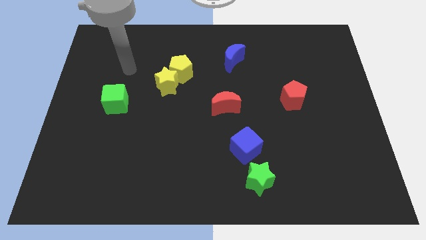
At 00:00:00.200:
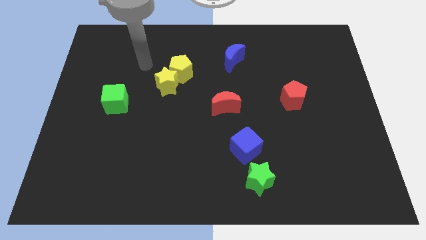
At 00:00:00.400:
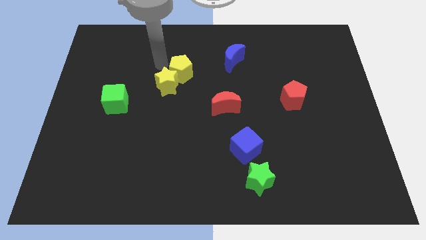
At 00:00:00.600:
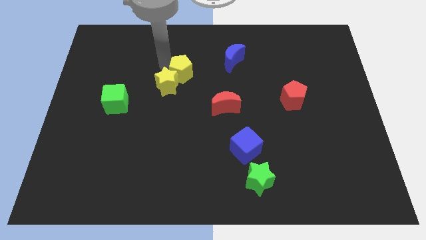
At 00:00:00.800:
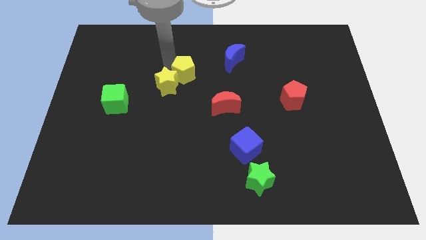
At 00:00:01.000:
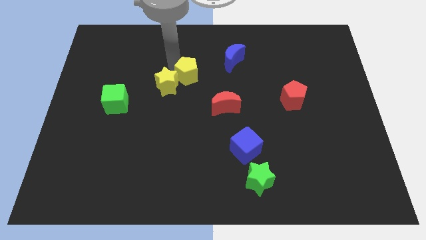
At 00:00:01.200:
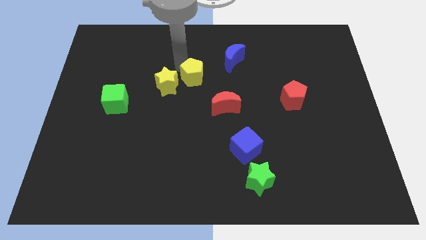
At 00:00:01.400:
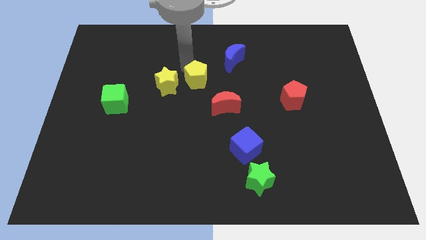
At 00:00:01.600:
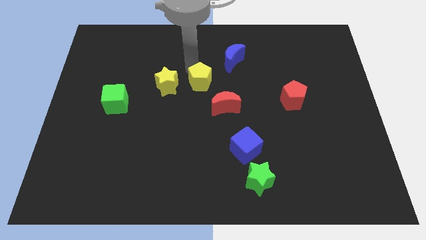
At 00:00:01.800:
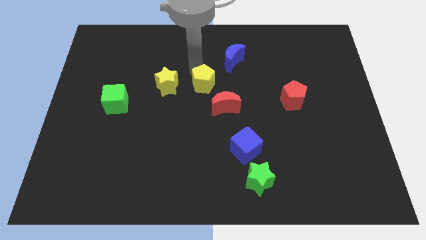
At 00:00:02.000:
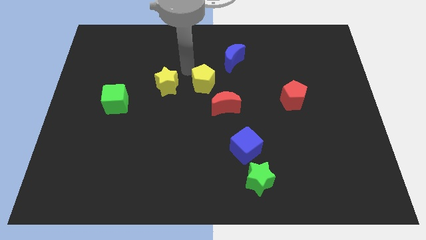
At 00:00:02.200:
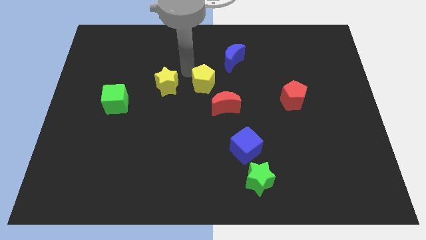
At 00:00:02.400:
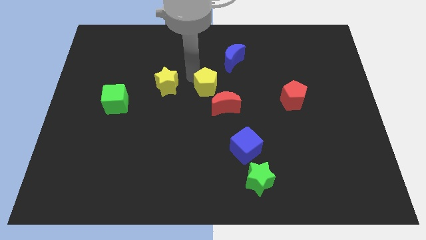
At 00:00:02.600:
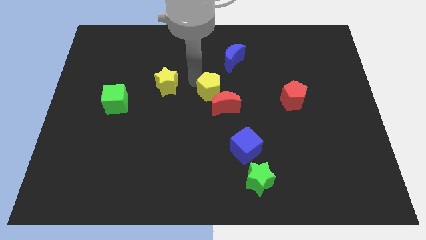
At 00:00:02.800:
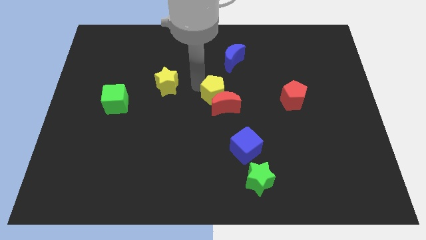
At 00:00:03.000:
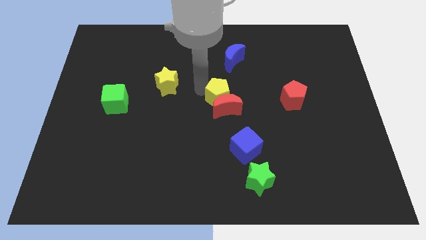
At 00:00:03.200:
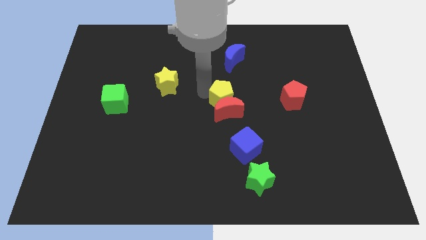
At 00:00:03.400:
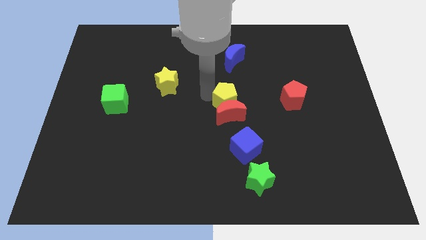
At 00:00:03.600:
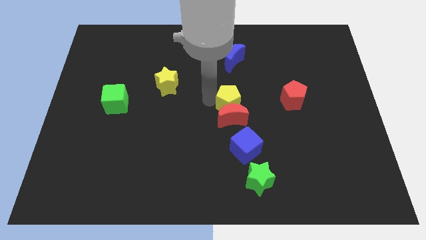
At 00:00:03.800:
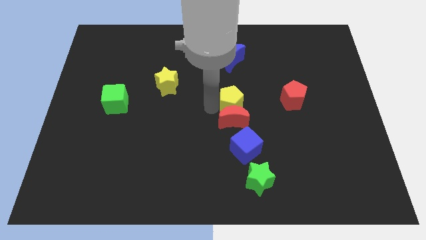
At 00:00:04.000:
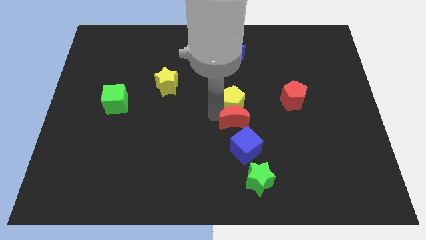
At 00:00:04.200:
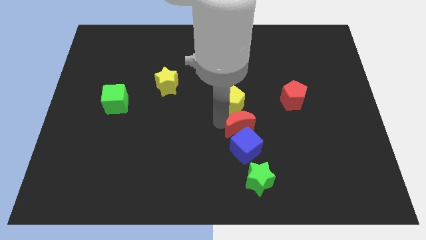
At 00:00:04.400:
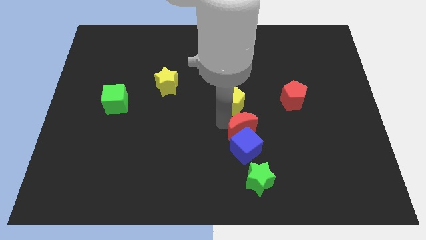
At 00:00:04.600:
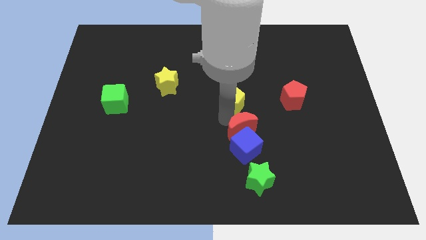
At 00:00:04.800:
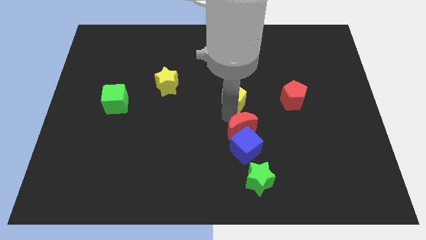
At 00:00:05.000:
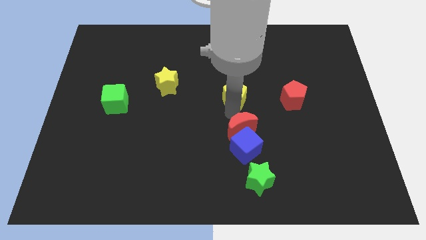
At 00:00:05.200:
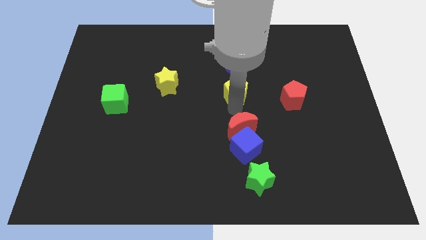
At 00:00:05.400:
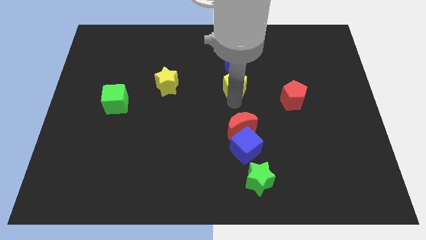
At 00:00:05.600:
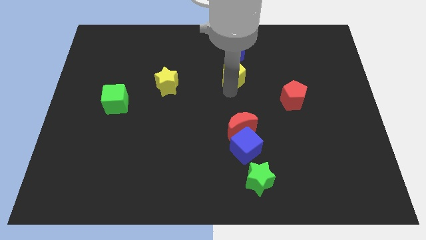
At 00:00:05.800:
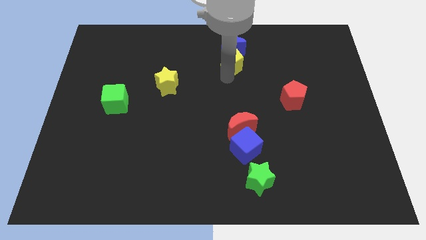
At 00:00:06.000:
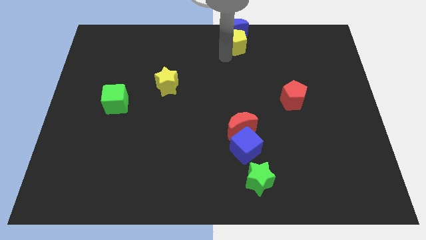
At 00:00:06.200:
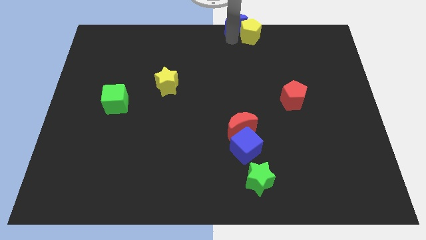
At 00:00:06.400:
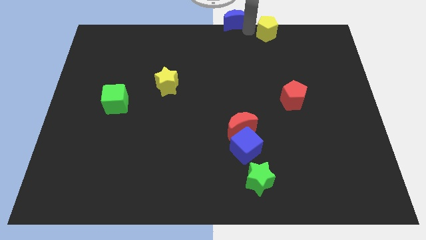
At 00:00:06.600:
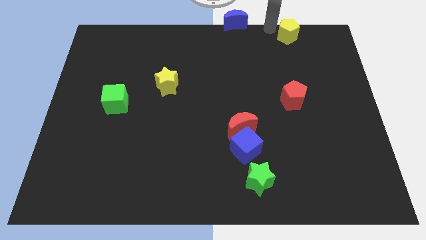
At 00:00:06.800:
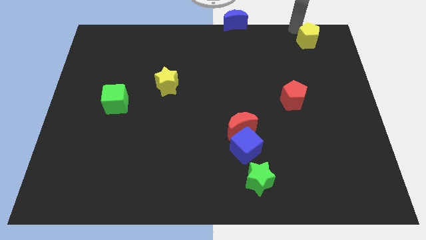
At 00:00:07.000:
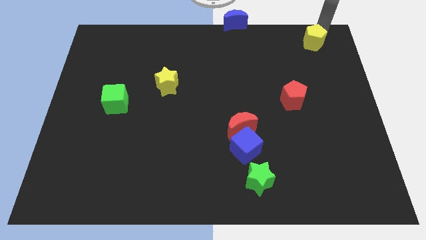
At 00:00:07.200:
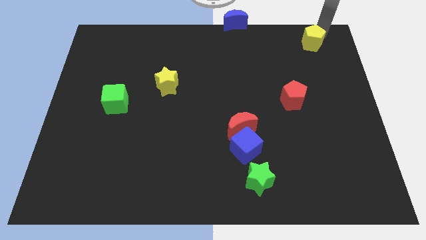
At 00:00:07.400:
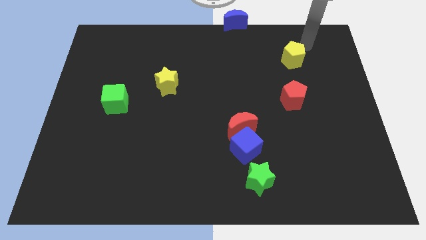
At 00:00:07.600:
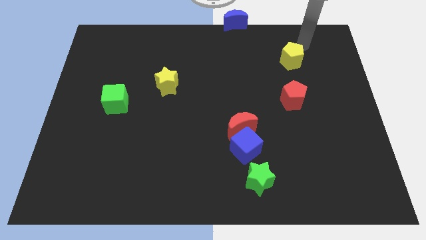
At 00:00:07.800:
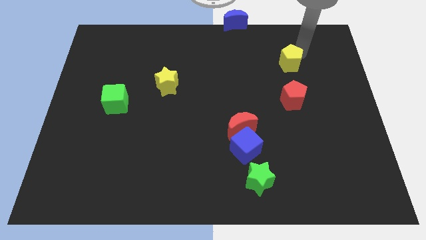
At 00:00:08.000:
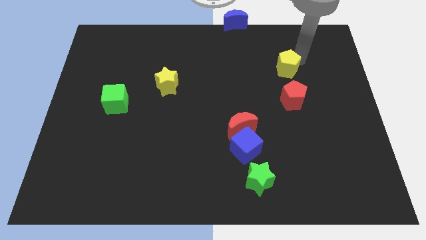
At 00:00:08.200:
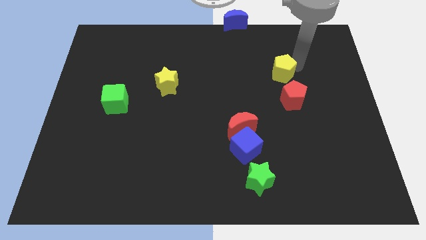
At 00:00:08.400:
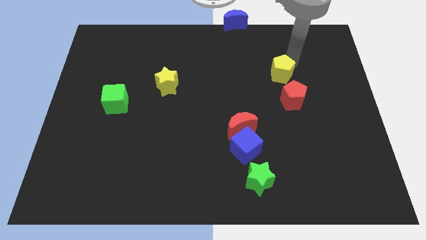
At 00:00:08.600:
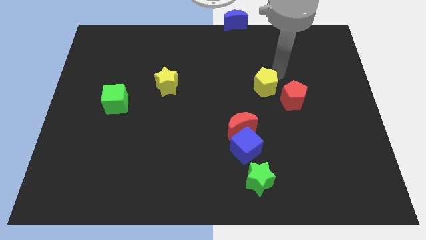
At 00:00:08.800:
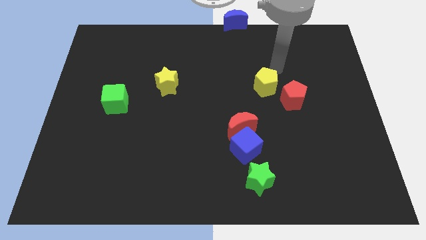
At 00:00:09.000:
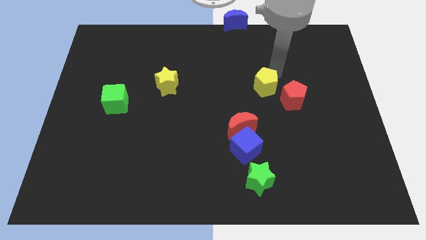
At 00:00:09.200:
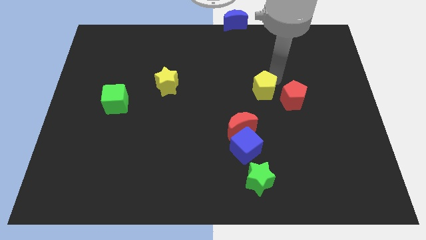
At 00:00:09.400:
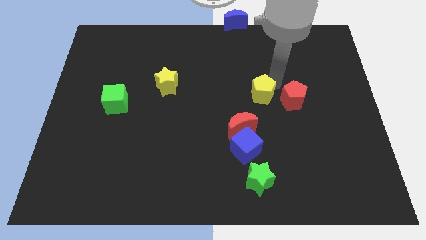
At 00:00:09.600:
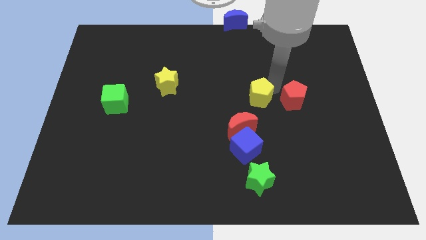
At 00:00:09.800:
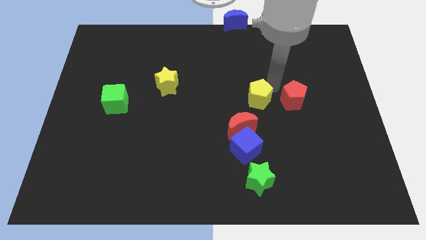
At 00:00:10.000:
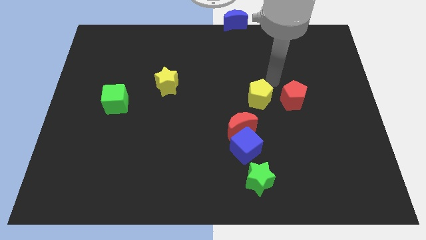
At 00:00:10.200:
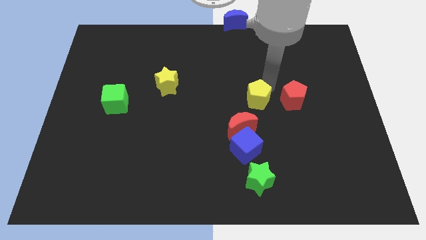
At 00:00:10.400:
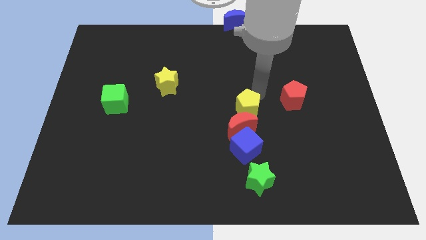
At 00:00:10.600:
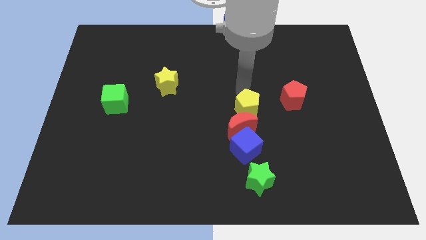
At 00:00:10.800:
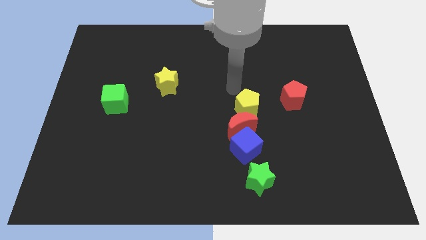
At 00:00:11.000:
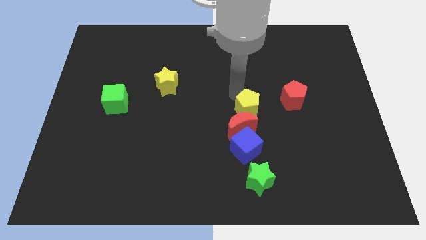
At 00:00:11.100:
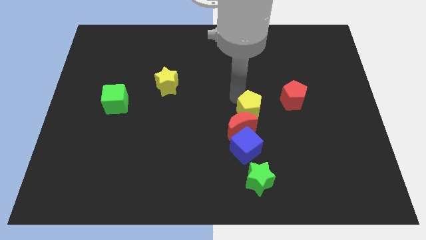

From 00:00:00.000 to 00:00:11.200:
slide the yellow pentagon down and to the right diagonally

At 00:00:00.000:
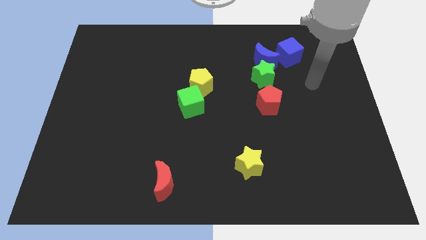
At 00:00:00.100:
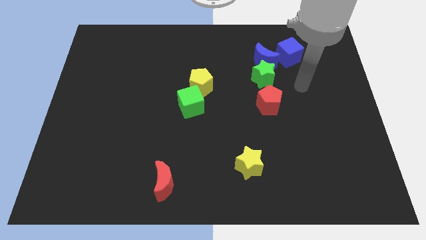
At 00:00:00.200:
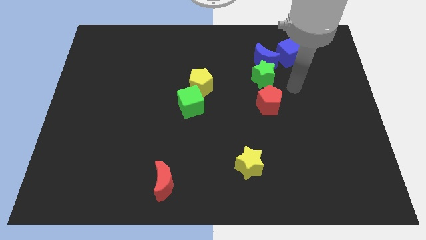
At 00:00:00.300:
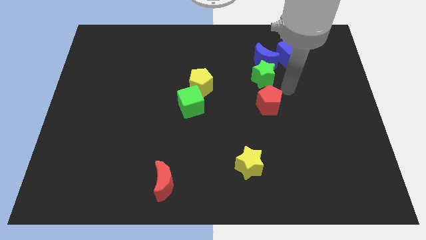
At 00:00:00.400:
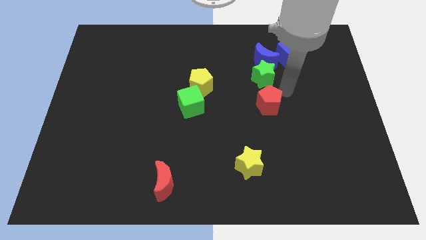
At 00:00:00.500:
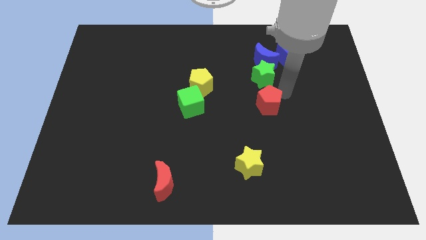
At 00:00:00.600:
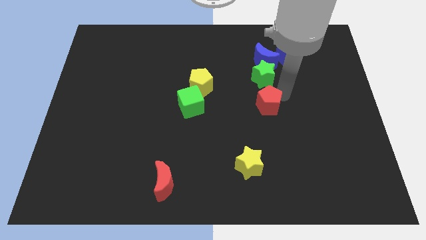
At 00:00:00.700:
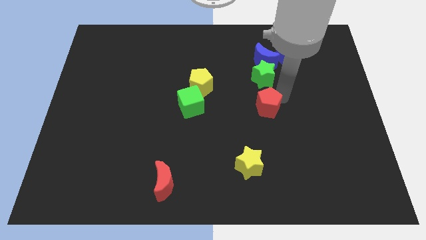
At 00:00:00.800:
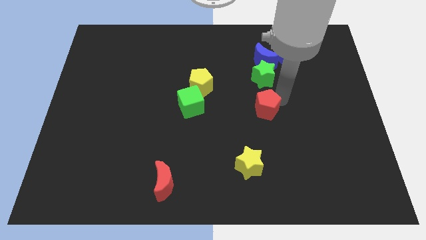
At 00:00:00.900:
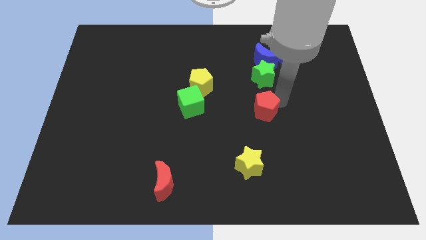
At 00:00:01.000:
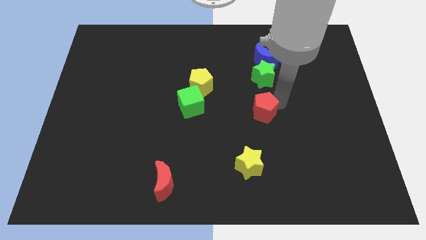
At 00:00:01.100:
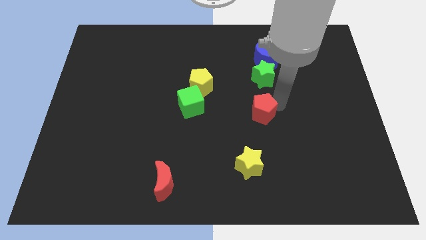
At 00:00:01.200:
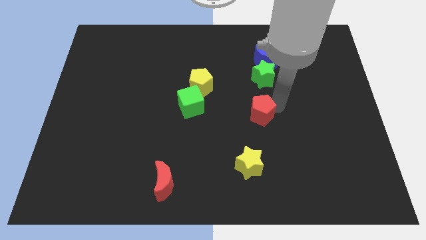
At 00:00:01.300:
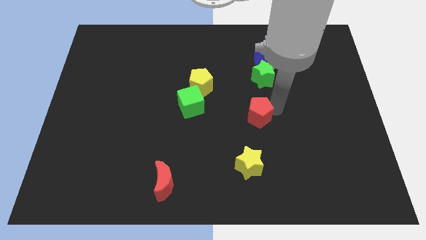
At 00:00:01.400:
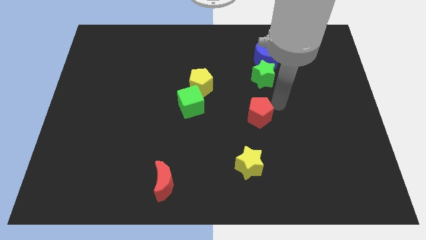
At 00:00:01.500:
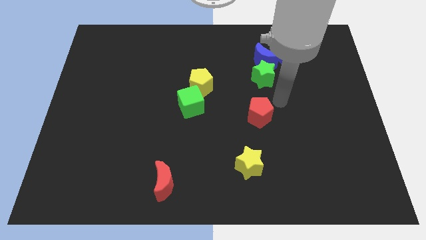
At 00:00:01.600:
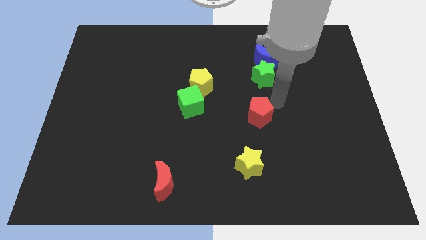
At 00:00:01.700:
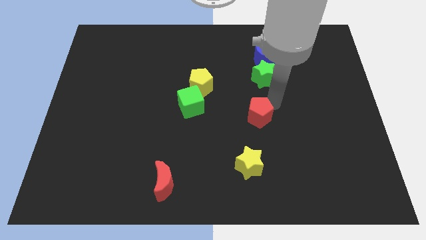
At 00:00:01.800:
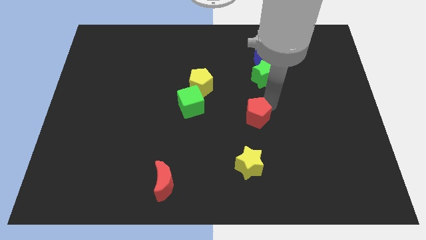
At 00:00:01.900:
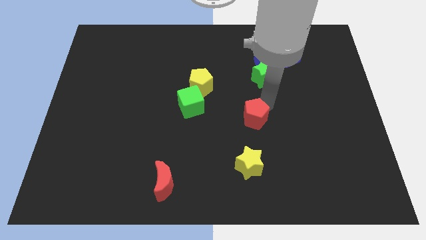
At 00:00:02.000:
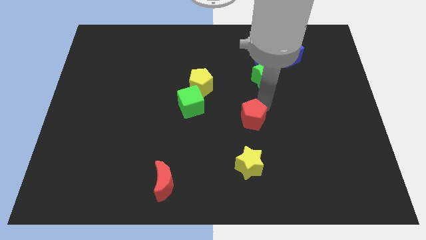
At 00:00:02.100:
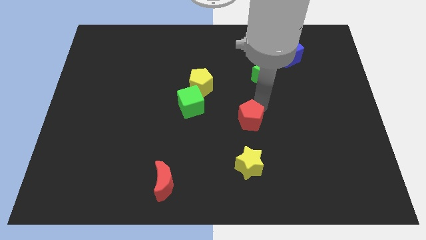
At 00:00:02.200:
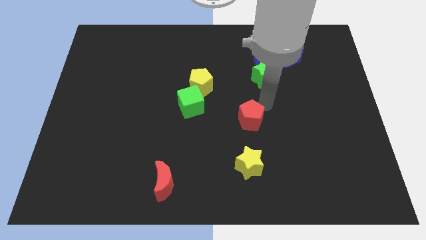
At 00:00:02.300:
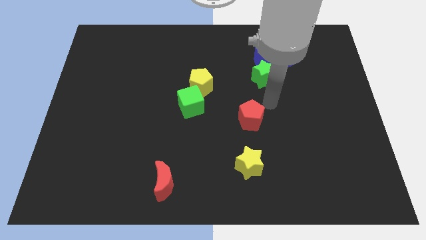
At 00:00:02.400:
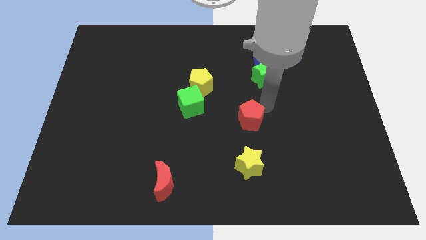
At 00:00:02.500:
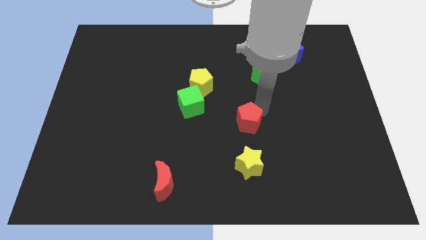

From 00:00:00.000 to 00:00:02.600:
push the red pentagon somewhat down and then left
